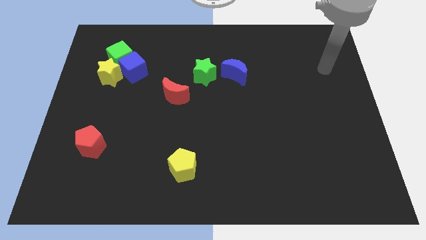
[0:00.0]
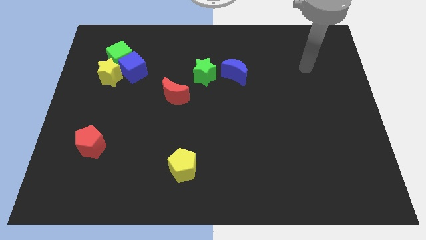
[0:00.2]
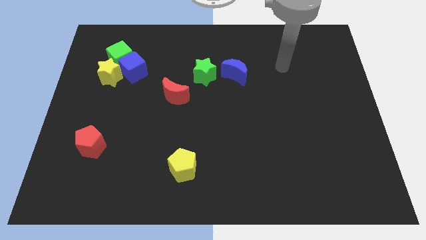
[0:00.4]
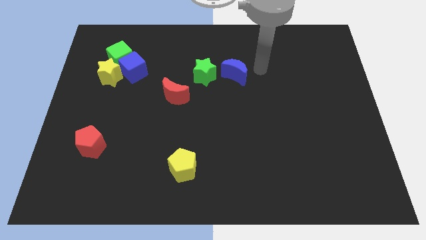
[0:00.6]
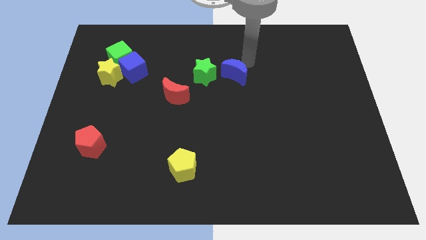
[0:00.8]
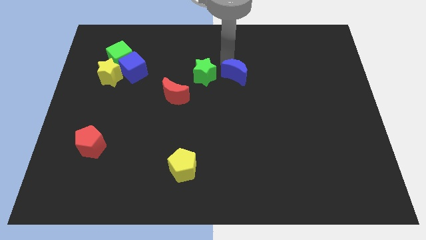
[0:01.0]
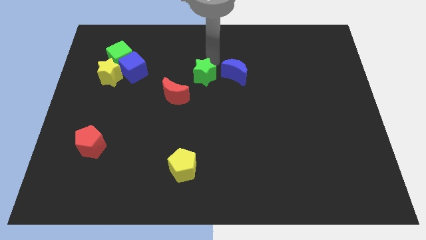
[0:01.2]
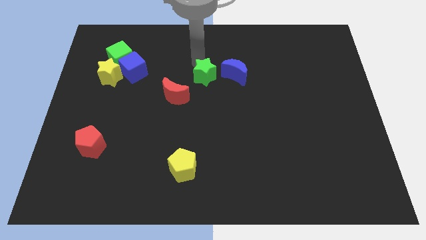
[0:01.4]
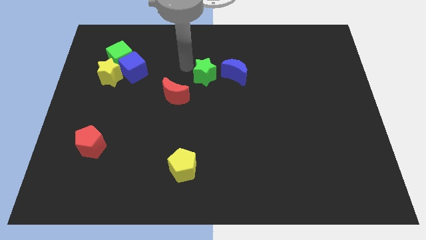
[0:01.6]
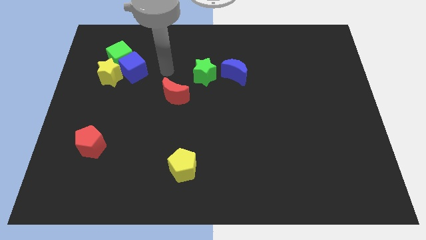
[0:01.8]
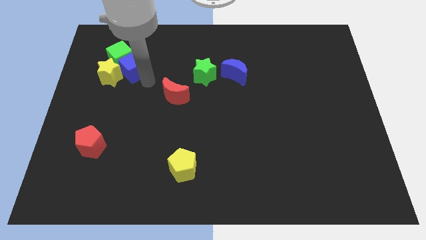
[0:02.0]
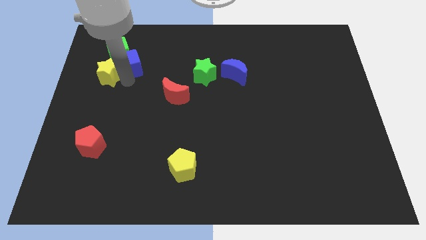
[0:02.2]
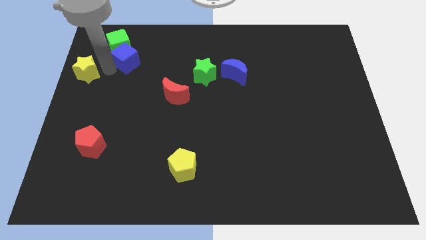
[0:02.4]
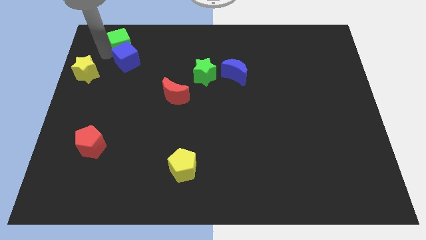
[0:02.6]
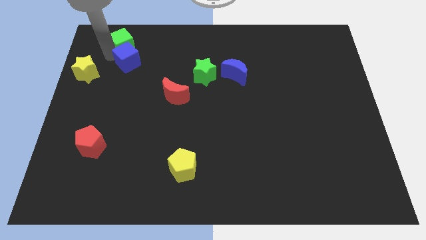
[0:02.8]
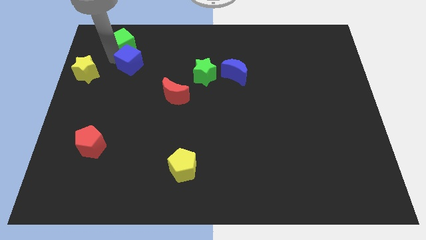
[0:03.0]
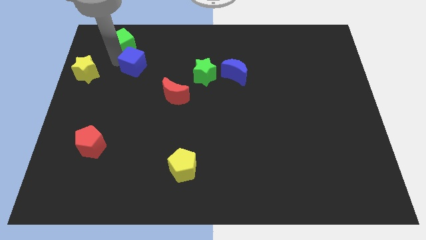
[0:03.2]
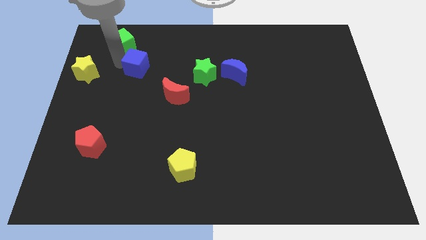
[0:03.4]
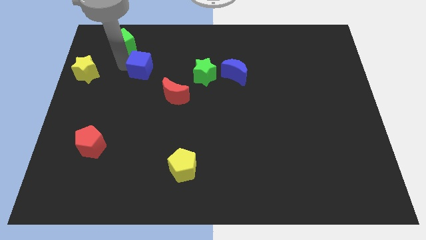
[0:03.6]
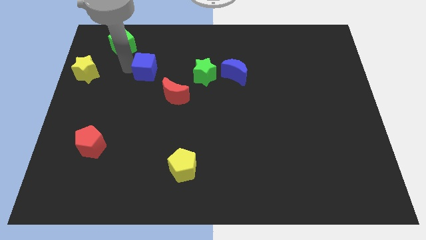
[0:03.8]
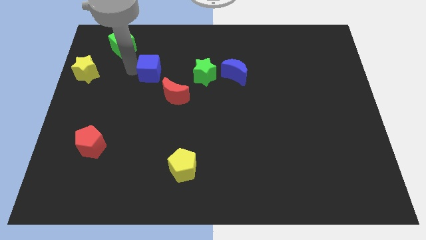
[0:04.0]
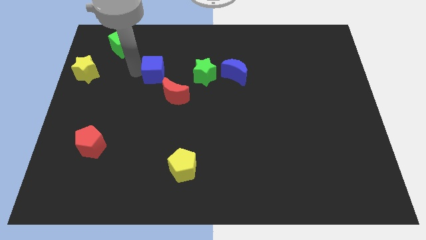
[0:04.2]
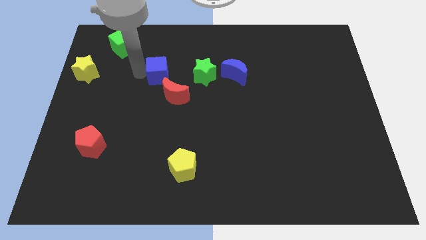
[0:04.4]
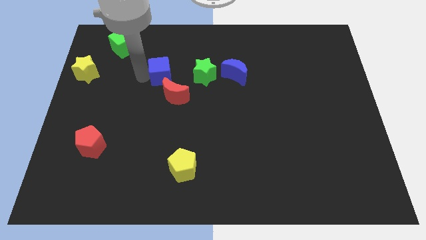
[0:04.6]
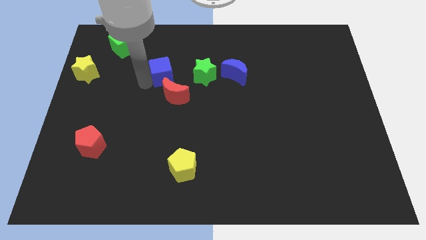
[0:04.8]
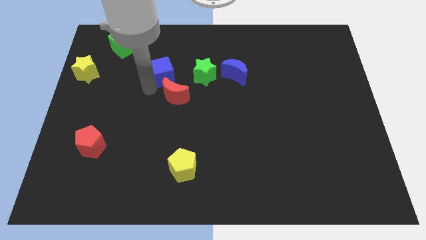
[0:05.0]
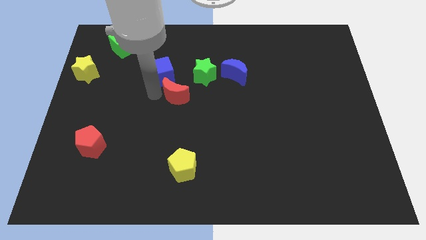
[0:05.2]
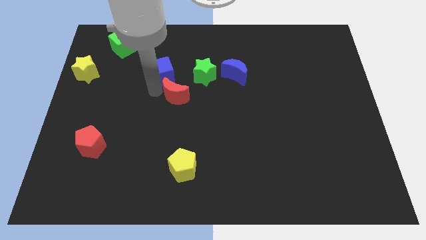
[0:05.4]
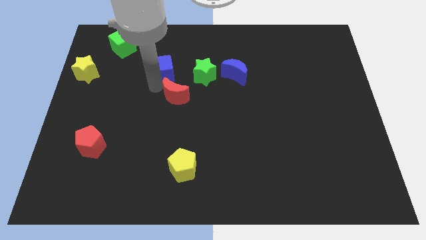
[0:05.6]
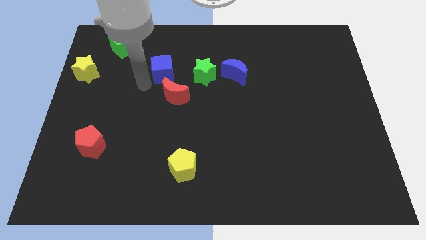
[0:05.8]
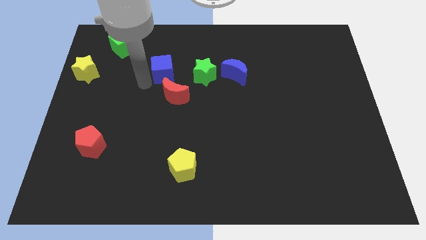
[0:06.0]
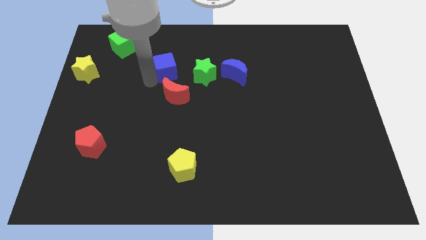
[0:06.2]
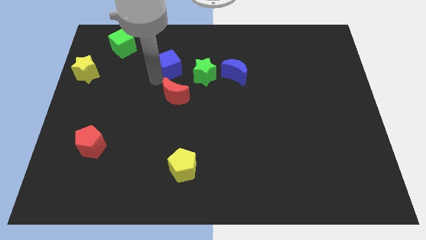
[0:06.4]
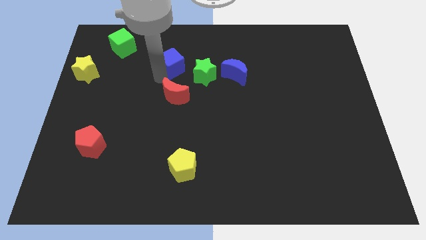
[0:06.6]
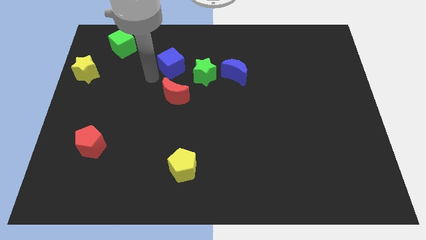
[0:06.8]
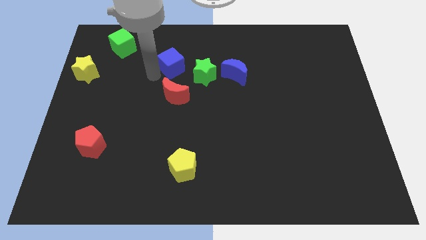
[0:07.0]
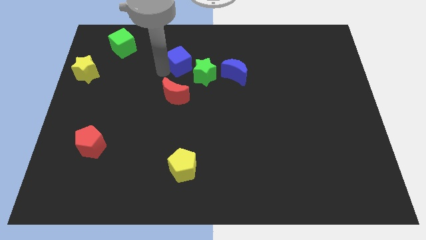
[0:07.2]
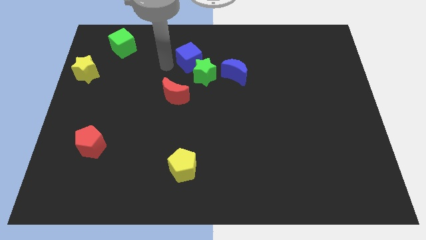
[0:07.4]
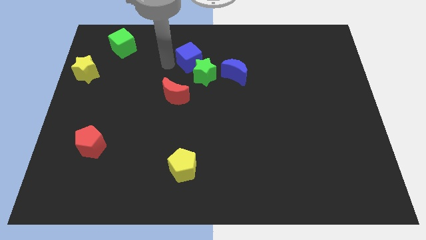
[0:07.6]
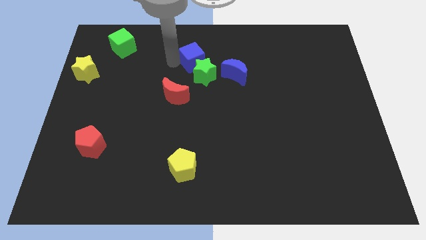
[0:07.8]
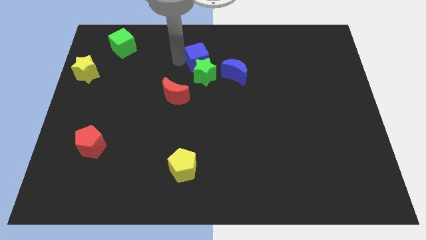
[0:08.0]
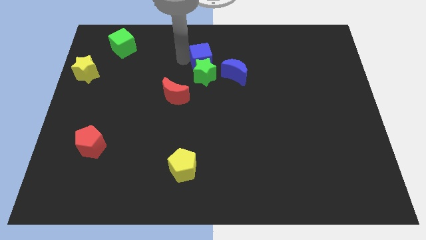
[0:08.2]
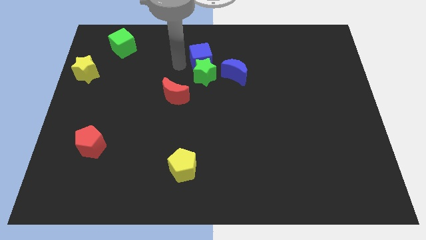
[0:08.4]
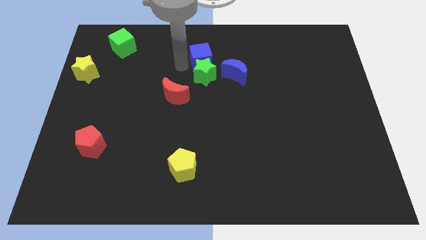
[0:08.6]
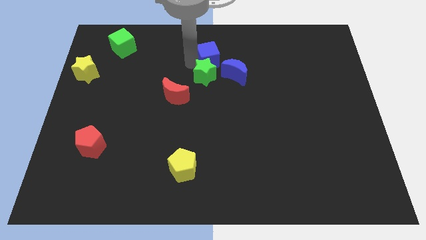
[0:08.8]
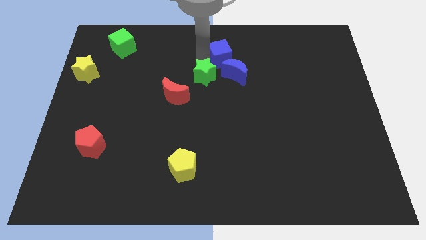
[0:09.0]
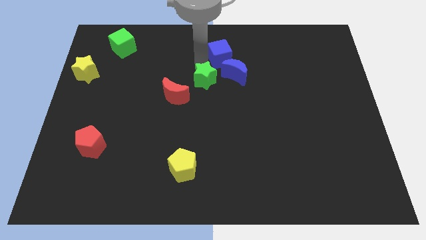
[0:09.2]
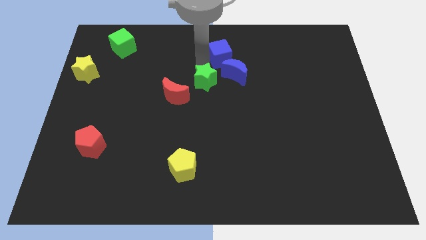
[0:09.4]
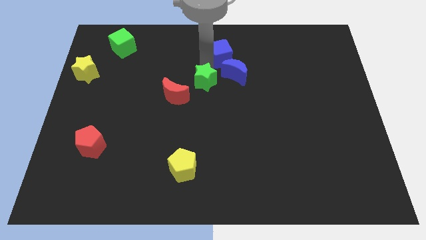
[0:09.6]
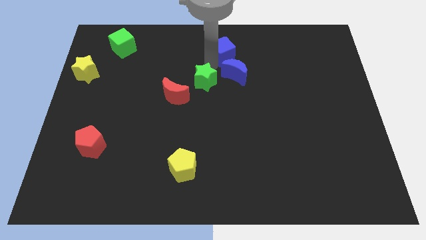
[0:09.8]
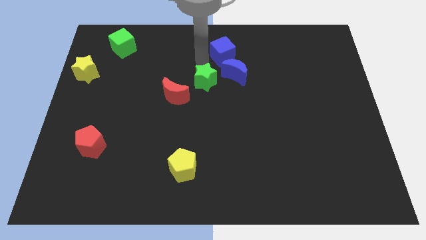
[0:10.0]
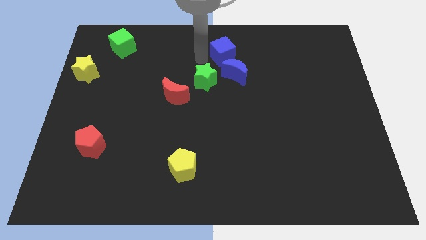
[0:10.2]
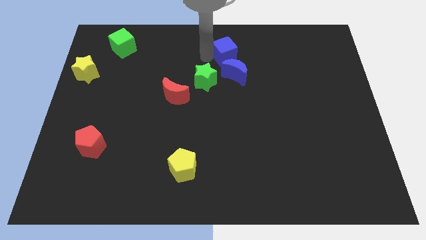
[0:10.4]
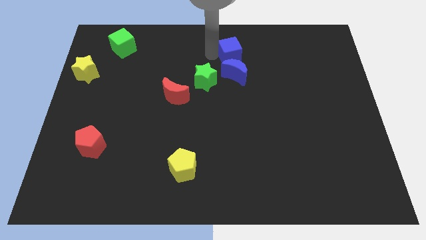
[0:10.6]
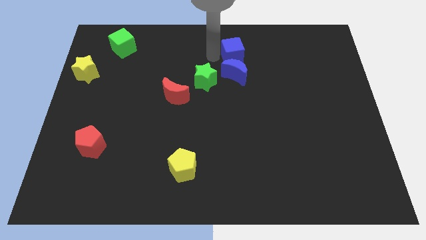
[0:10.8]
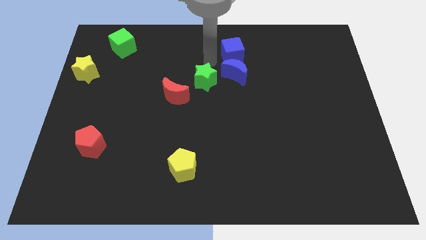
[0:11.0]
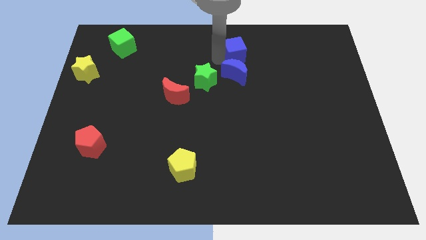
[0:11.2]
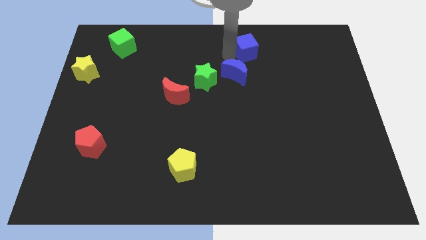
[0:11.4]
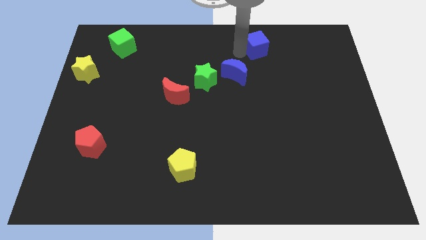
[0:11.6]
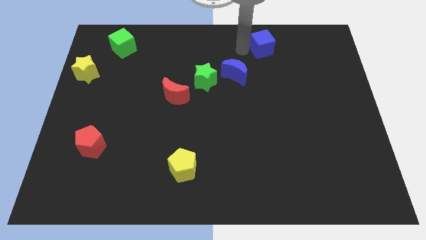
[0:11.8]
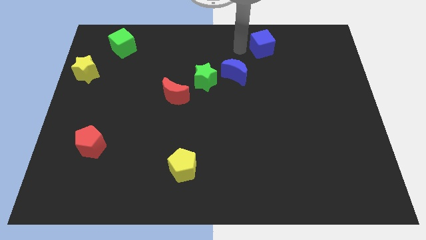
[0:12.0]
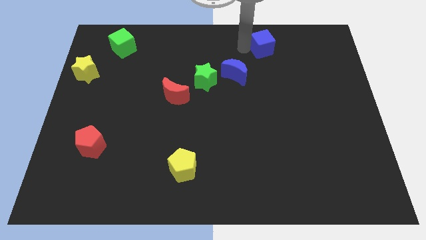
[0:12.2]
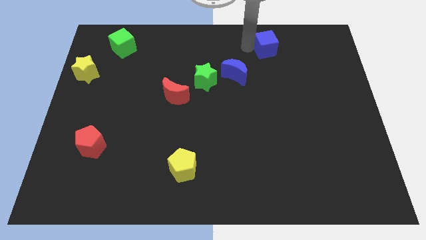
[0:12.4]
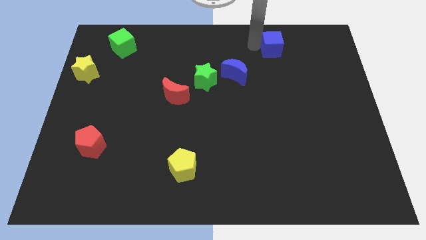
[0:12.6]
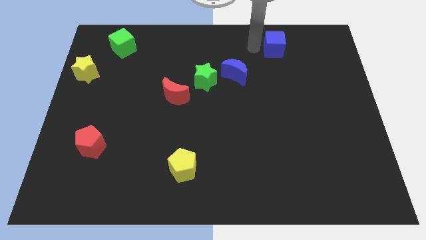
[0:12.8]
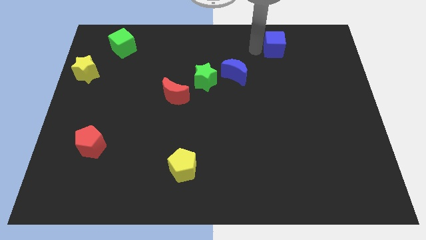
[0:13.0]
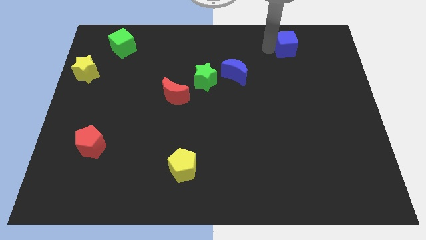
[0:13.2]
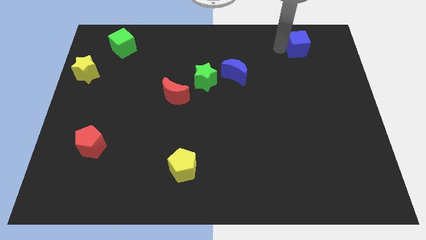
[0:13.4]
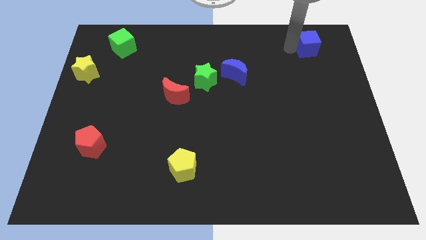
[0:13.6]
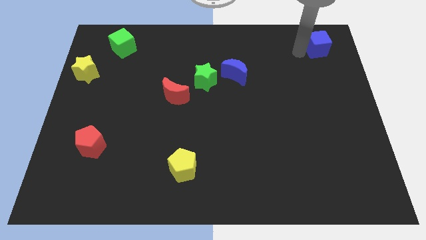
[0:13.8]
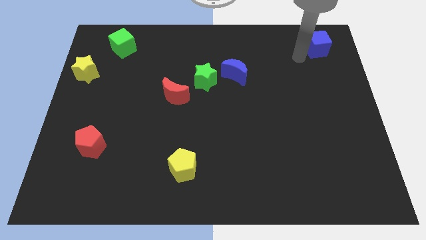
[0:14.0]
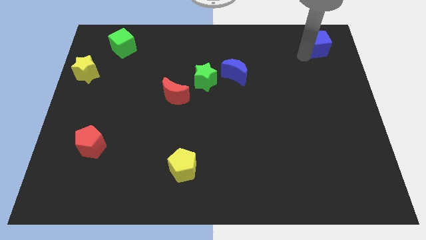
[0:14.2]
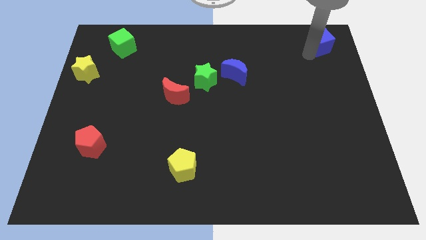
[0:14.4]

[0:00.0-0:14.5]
slide the blue cube to the top right

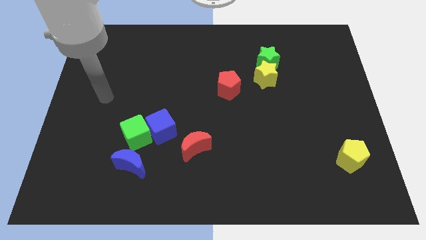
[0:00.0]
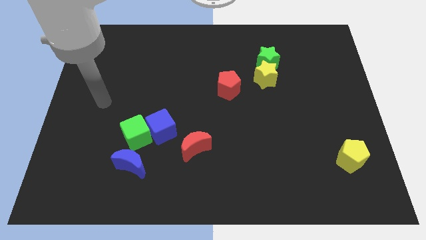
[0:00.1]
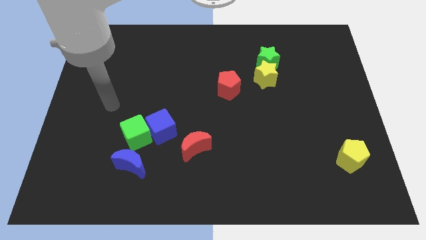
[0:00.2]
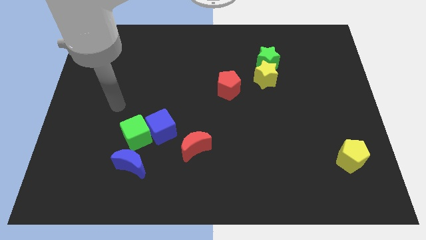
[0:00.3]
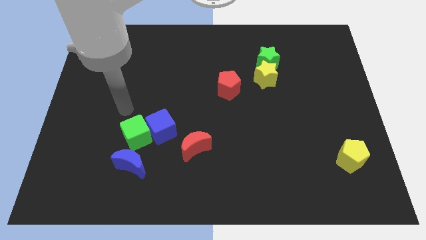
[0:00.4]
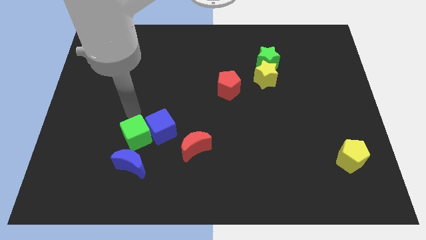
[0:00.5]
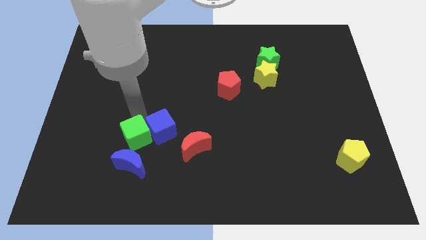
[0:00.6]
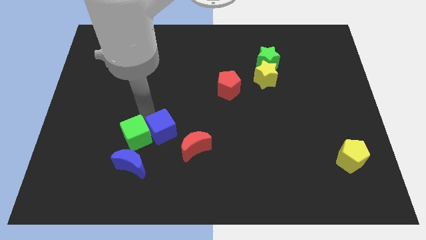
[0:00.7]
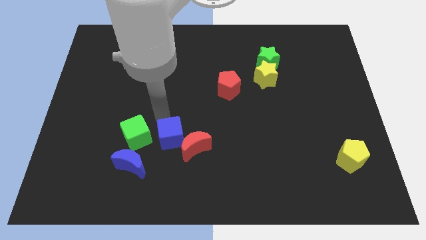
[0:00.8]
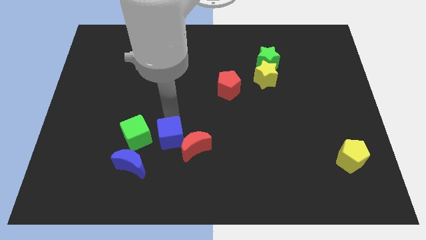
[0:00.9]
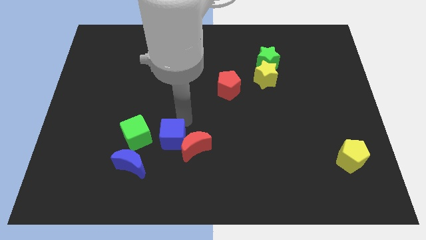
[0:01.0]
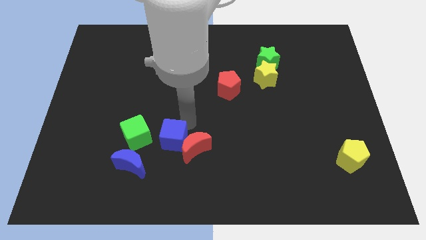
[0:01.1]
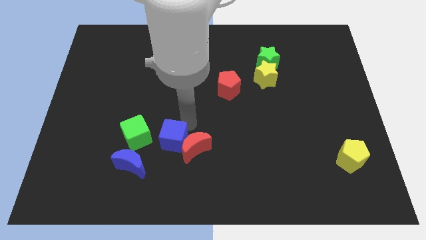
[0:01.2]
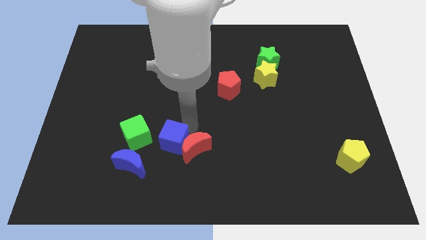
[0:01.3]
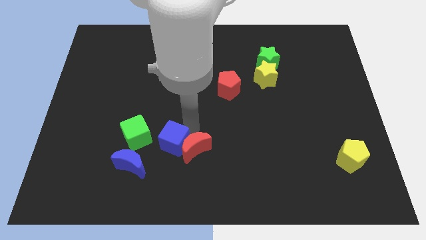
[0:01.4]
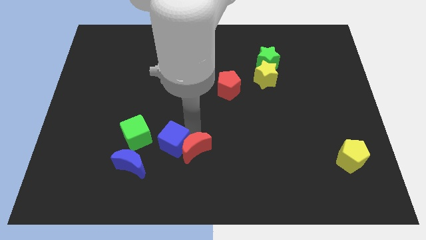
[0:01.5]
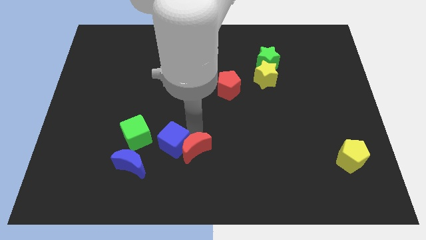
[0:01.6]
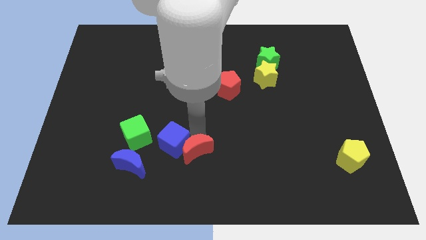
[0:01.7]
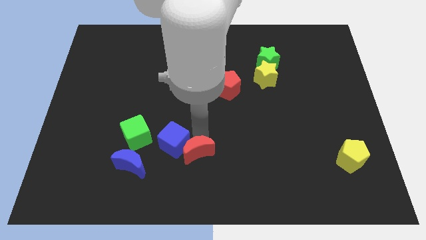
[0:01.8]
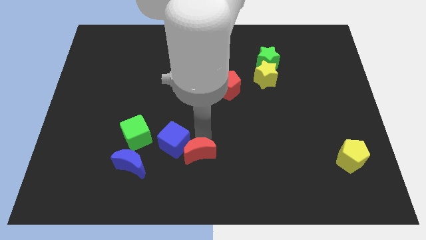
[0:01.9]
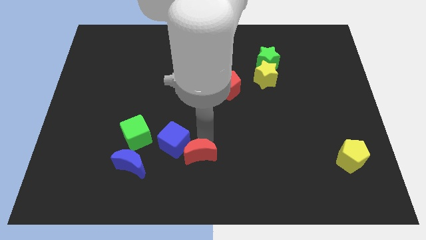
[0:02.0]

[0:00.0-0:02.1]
slide the red moon to the bottom side
